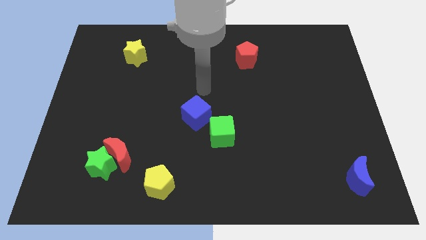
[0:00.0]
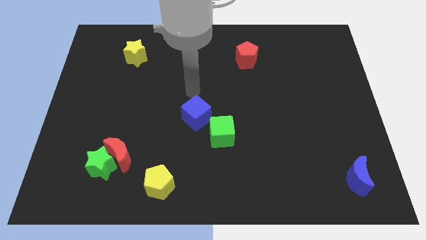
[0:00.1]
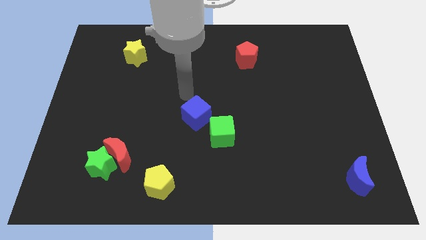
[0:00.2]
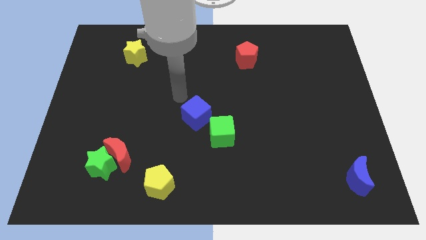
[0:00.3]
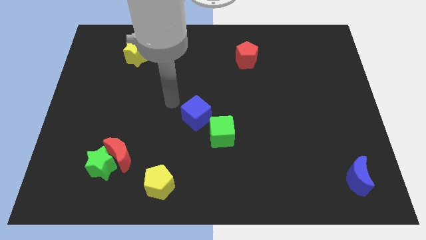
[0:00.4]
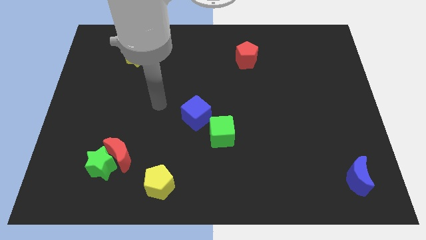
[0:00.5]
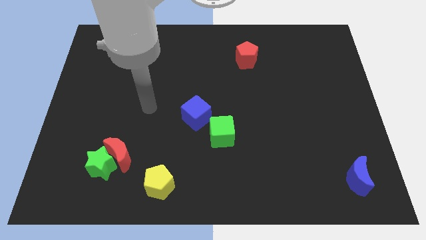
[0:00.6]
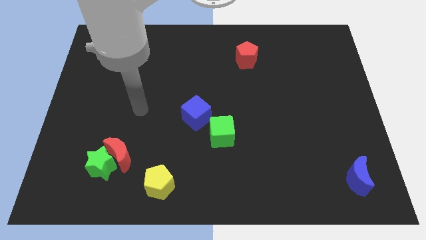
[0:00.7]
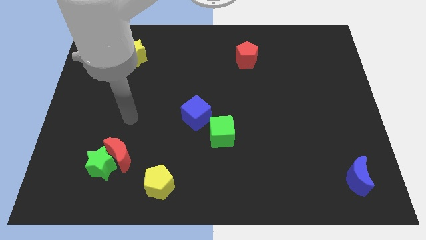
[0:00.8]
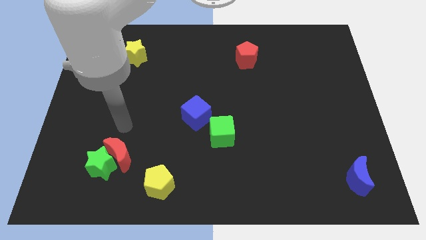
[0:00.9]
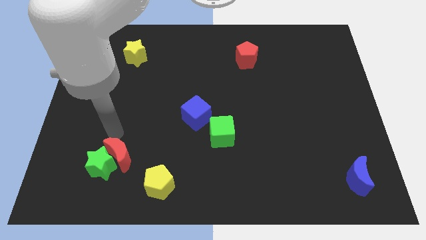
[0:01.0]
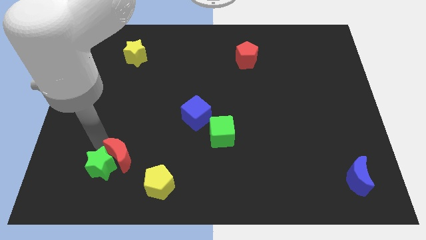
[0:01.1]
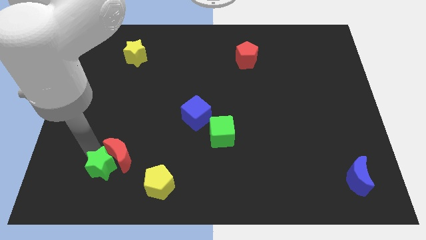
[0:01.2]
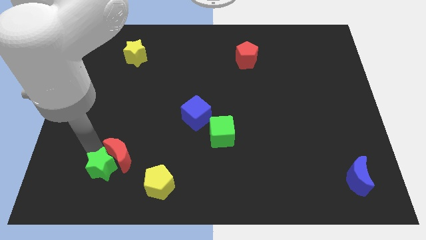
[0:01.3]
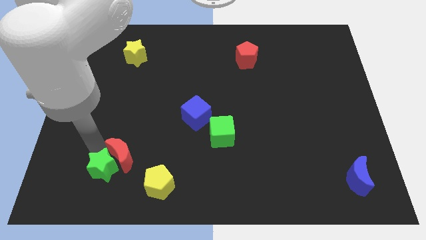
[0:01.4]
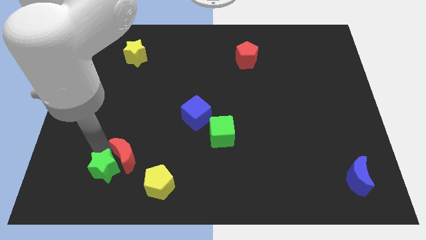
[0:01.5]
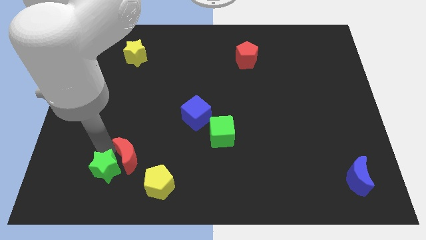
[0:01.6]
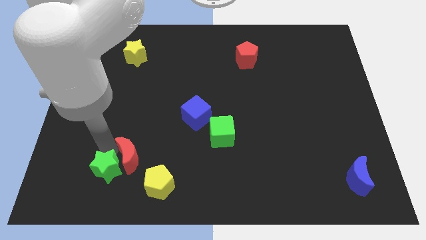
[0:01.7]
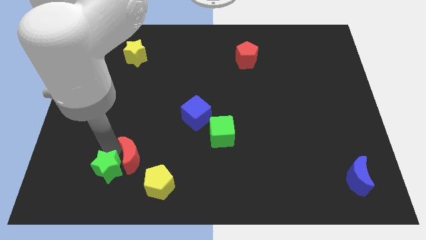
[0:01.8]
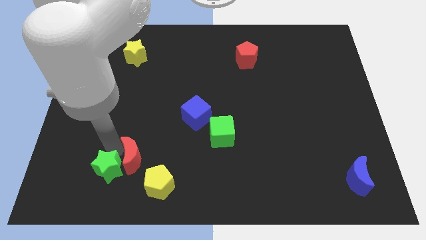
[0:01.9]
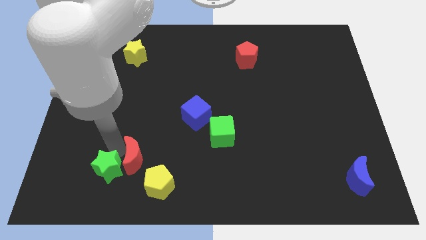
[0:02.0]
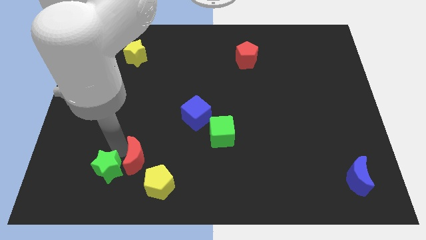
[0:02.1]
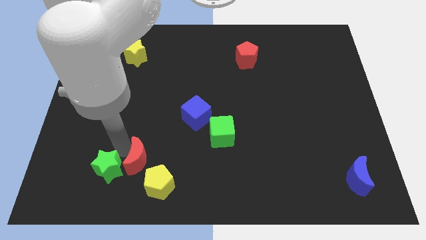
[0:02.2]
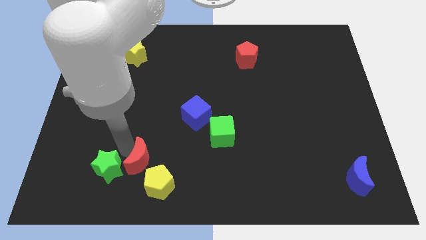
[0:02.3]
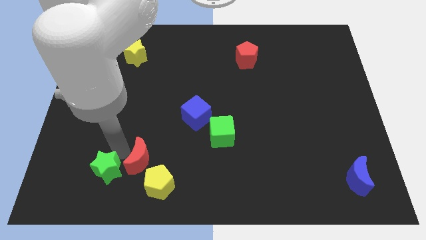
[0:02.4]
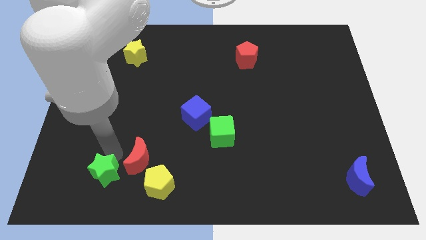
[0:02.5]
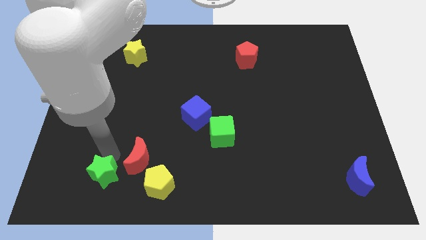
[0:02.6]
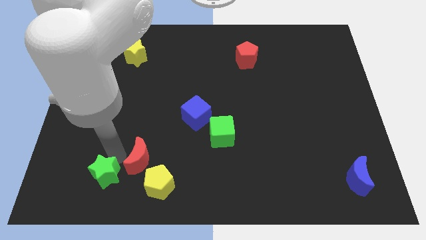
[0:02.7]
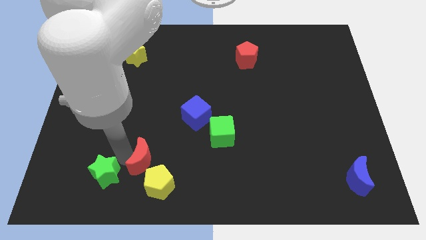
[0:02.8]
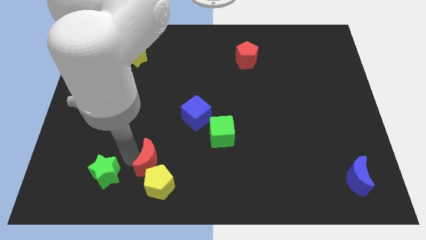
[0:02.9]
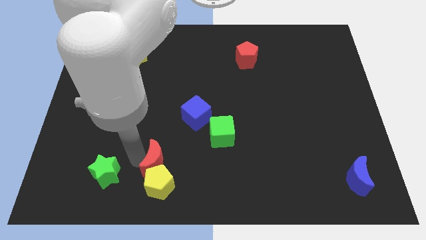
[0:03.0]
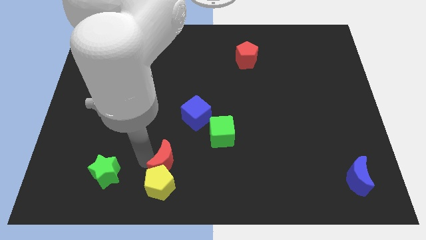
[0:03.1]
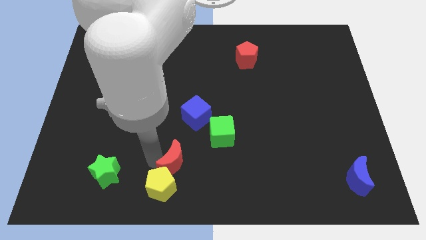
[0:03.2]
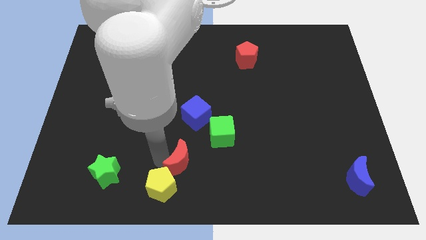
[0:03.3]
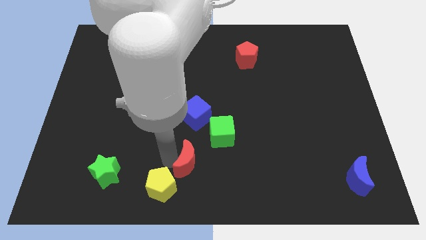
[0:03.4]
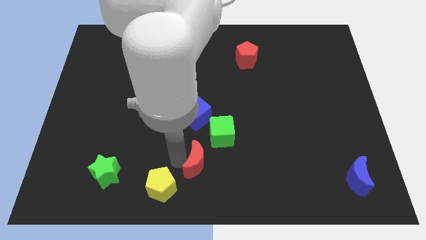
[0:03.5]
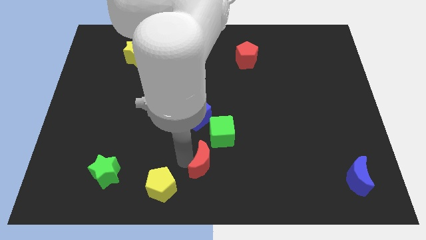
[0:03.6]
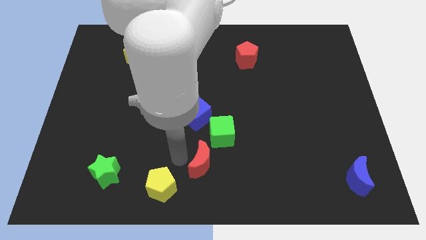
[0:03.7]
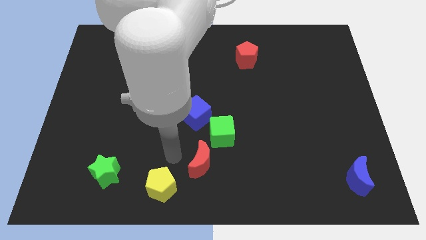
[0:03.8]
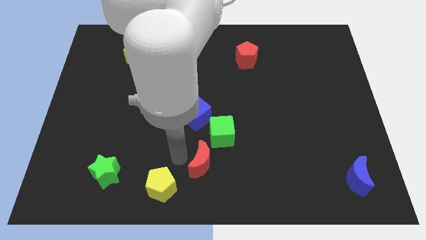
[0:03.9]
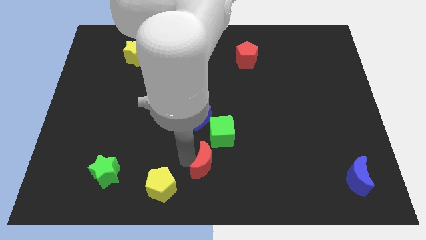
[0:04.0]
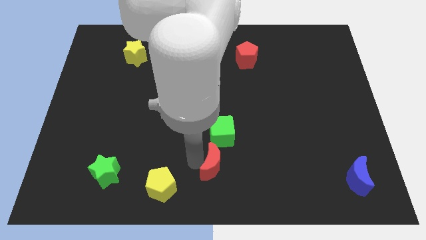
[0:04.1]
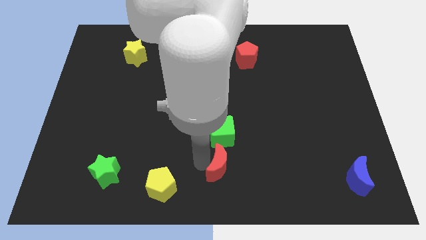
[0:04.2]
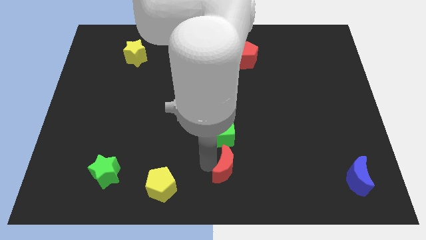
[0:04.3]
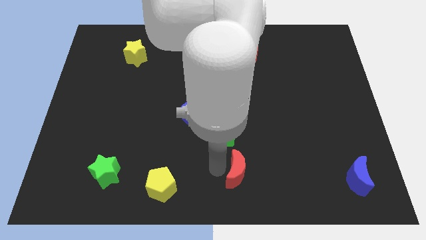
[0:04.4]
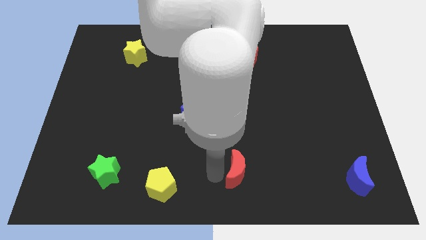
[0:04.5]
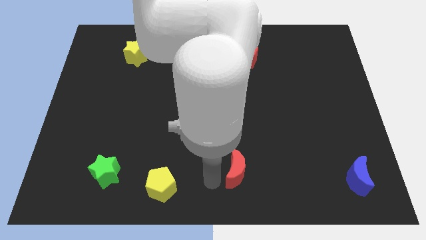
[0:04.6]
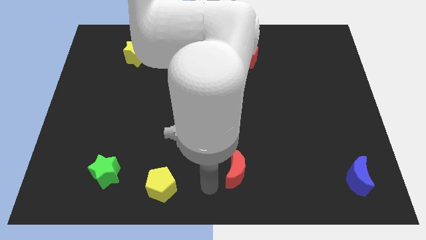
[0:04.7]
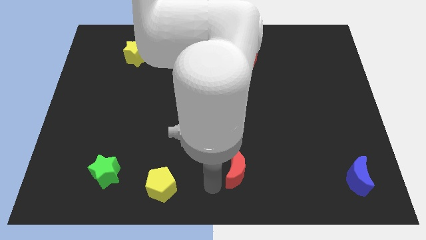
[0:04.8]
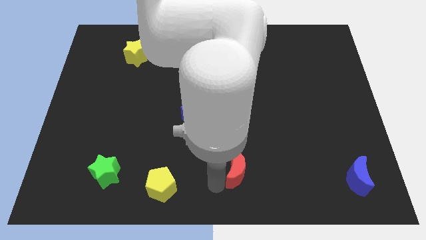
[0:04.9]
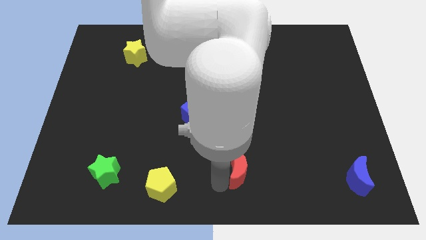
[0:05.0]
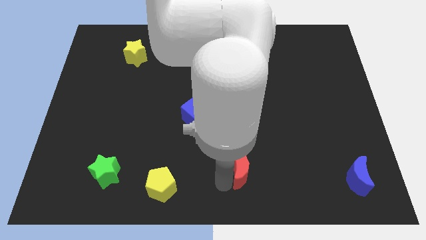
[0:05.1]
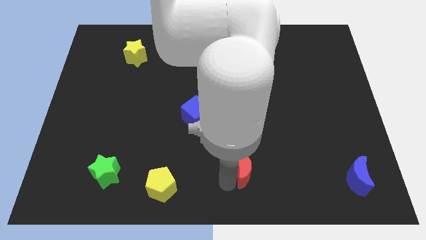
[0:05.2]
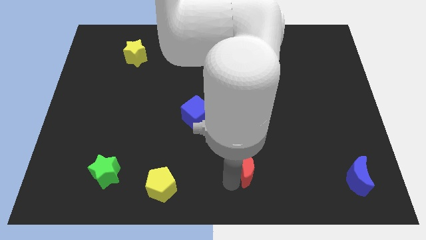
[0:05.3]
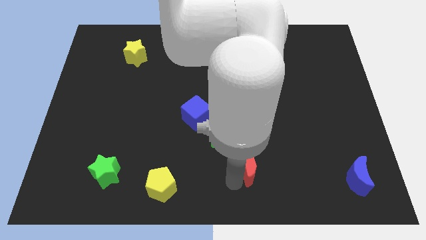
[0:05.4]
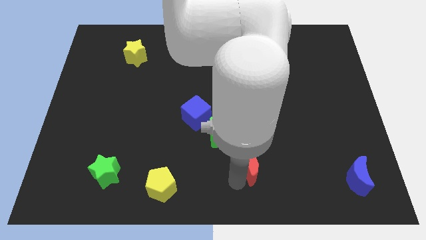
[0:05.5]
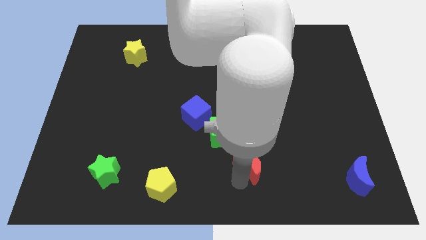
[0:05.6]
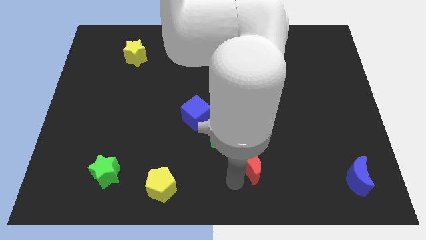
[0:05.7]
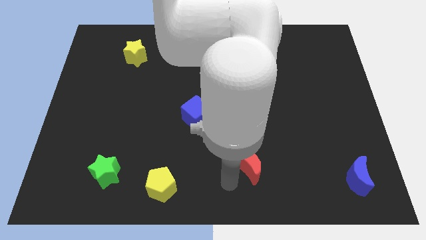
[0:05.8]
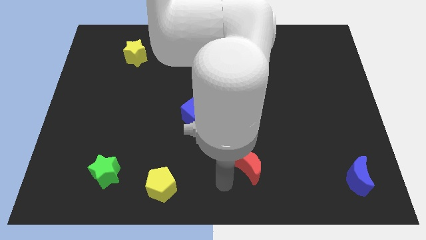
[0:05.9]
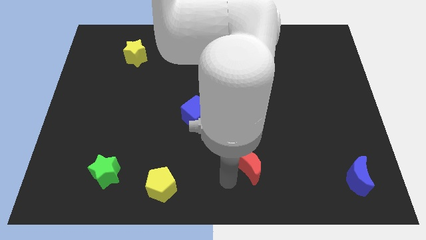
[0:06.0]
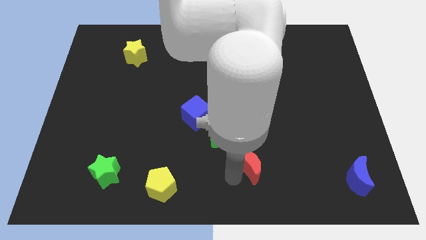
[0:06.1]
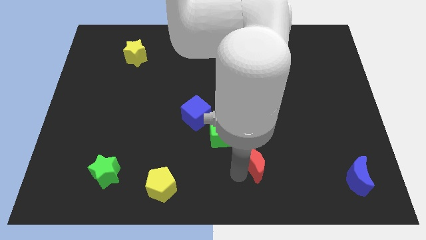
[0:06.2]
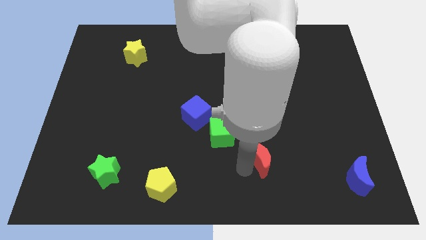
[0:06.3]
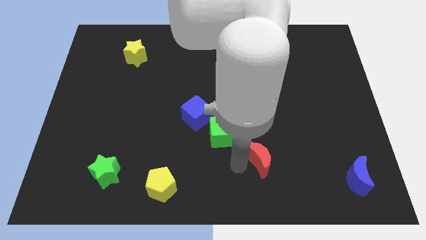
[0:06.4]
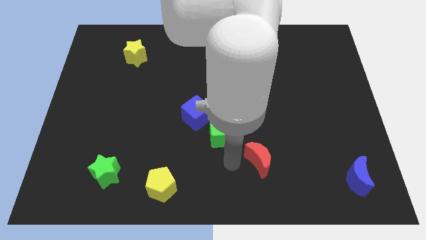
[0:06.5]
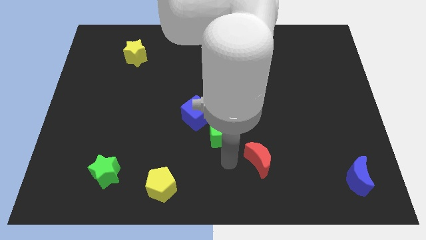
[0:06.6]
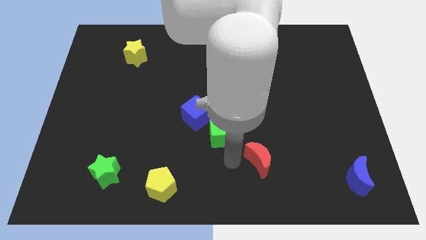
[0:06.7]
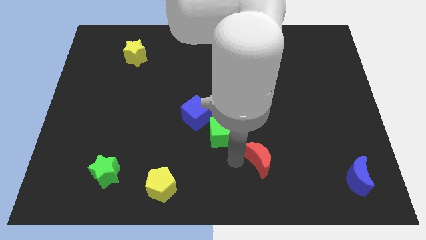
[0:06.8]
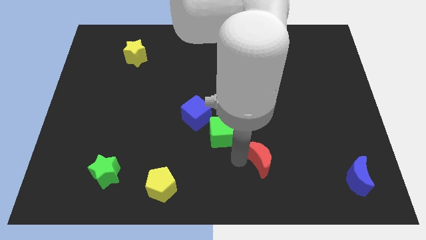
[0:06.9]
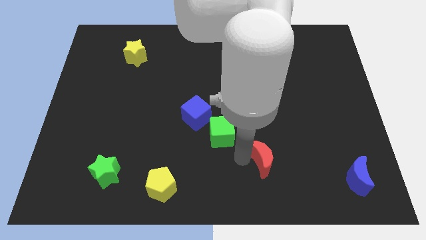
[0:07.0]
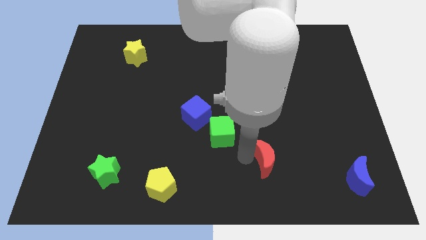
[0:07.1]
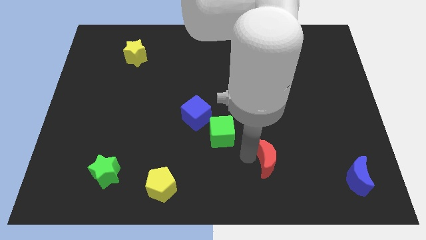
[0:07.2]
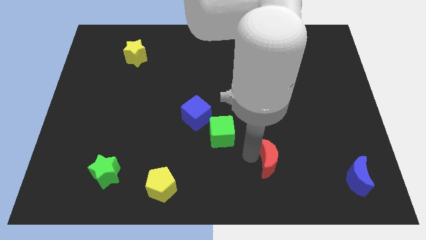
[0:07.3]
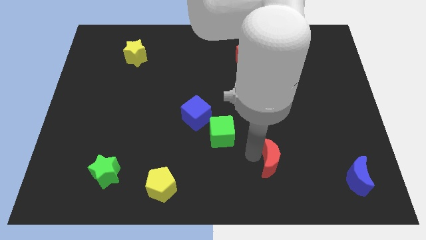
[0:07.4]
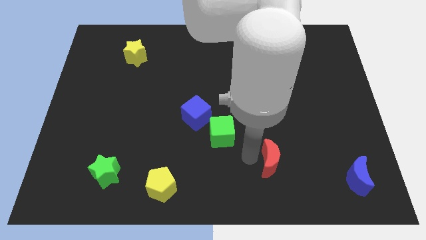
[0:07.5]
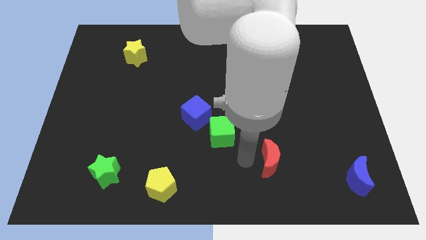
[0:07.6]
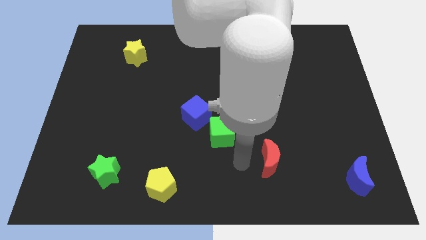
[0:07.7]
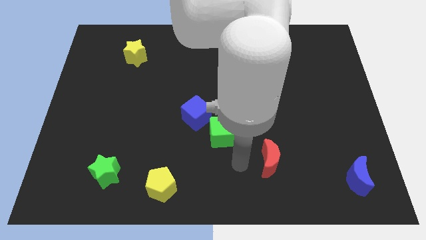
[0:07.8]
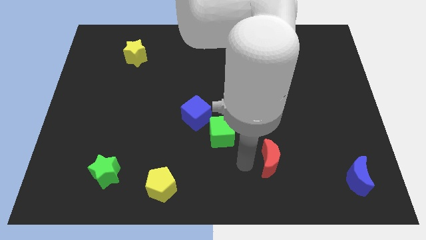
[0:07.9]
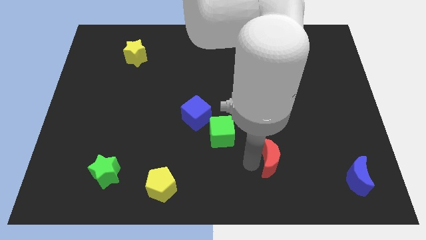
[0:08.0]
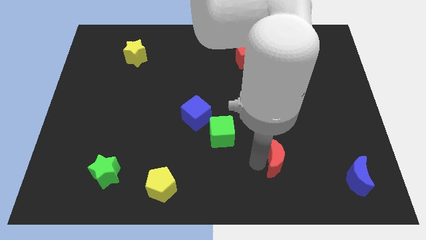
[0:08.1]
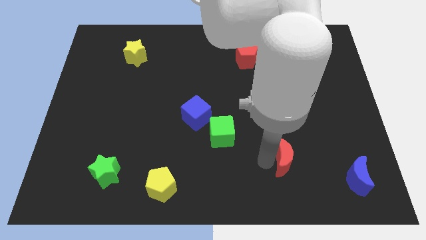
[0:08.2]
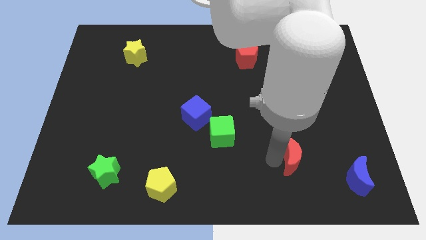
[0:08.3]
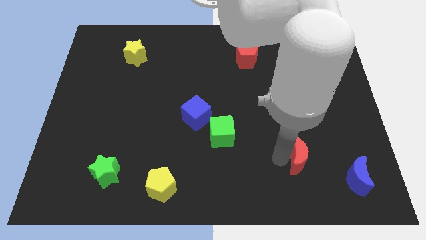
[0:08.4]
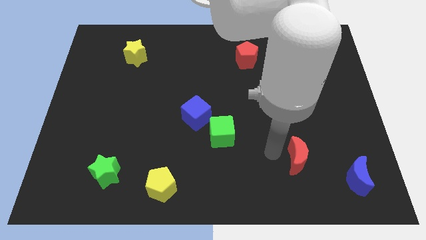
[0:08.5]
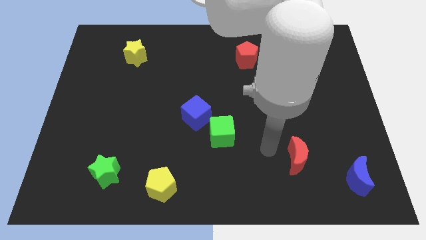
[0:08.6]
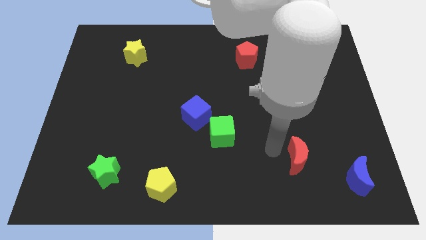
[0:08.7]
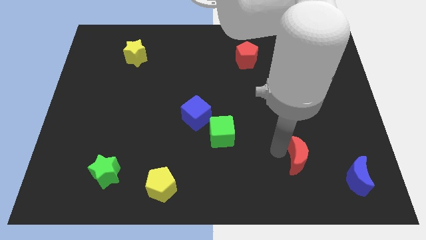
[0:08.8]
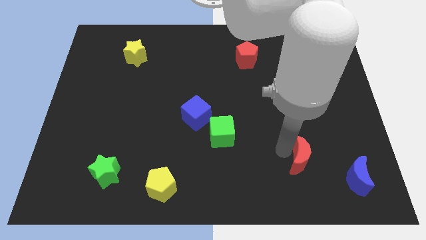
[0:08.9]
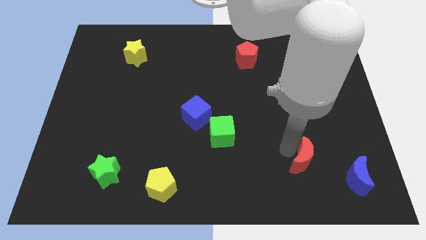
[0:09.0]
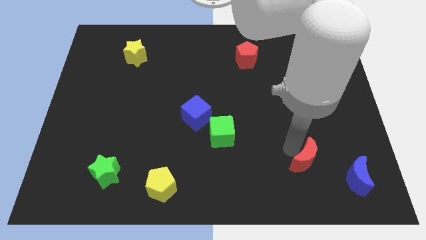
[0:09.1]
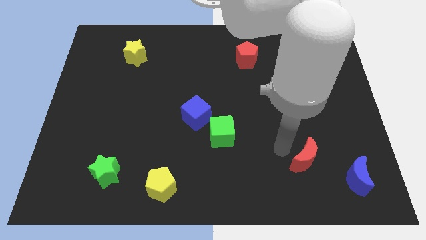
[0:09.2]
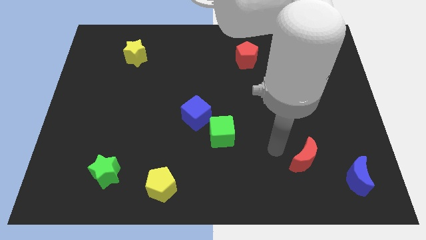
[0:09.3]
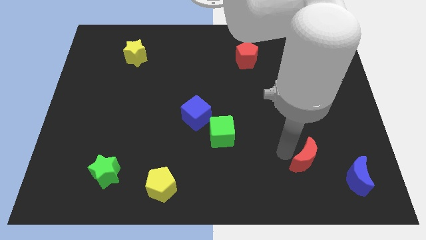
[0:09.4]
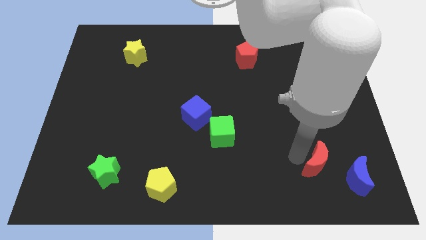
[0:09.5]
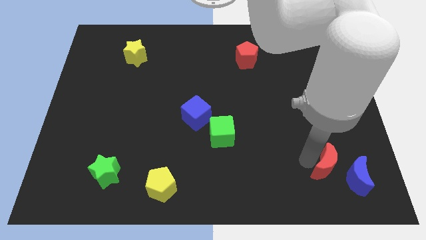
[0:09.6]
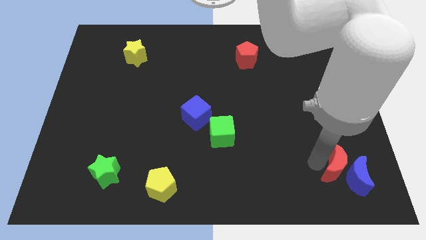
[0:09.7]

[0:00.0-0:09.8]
slide the red moon to the blue moon
